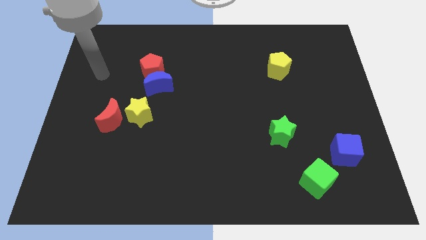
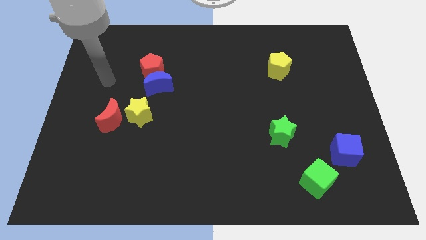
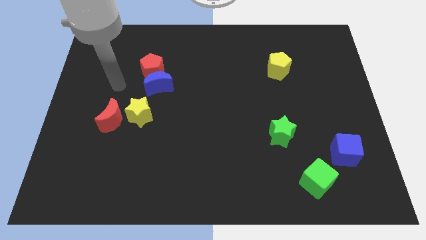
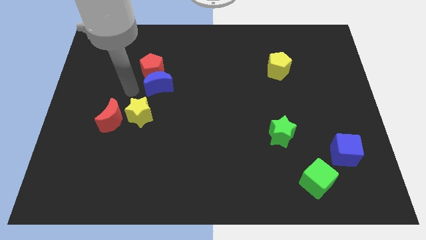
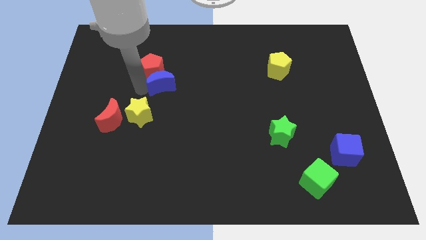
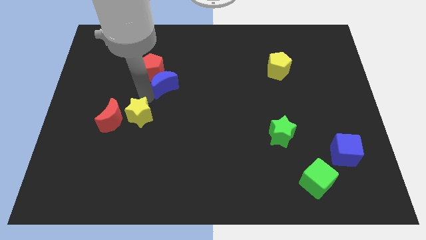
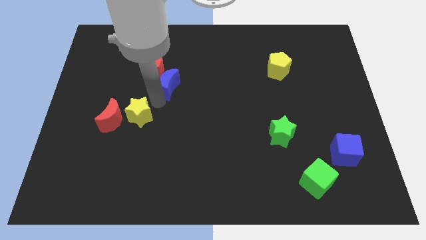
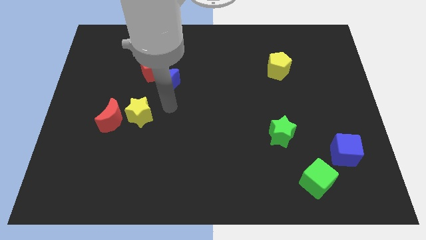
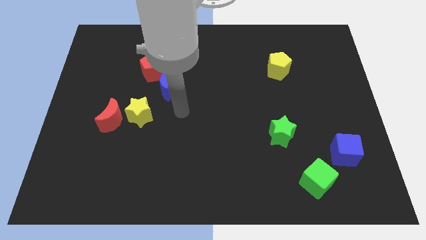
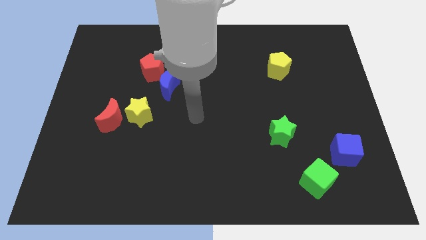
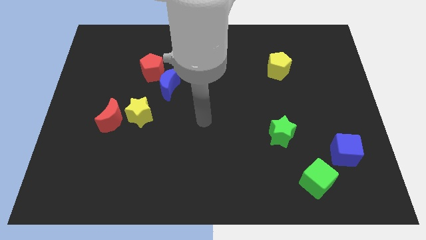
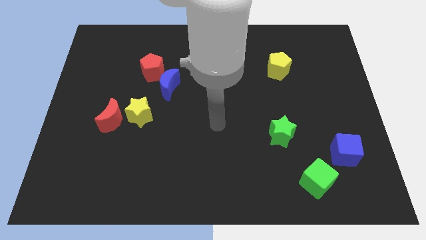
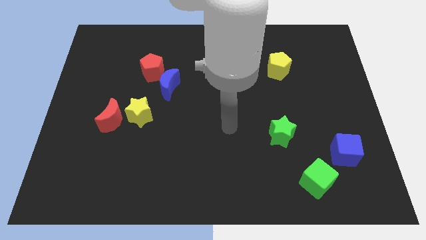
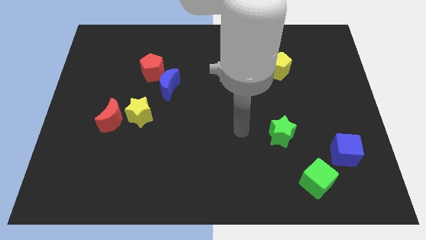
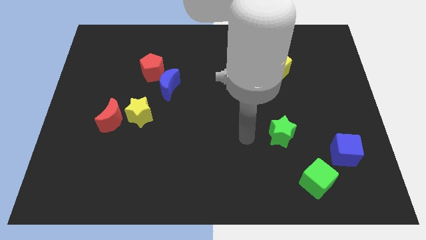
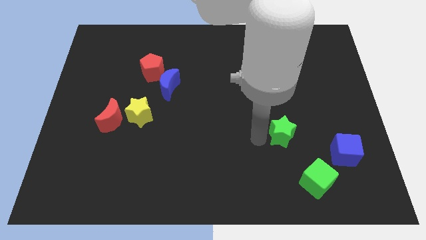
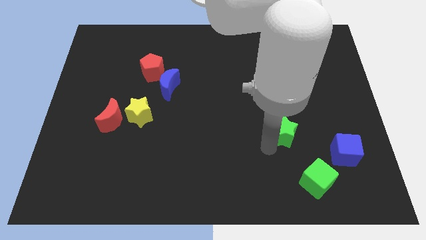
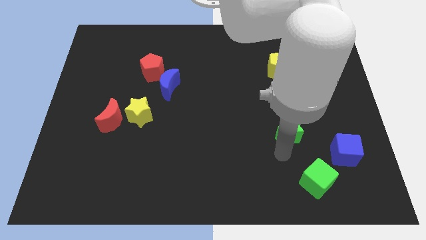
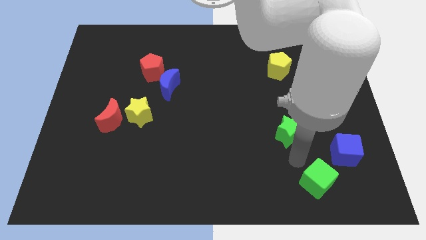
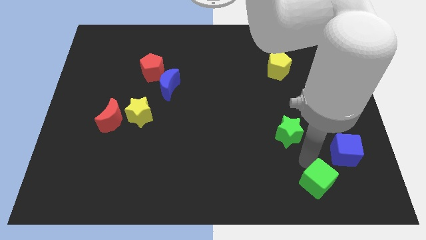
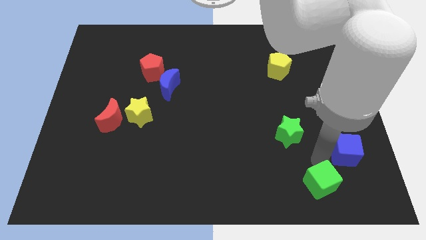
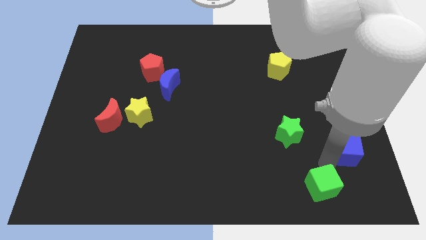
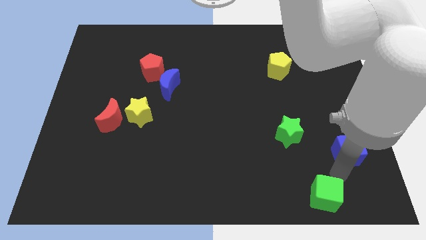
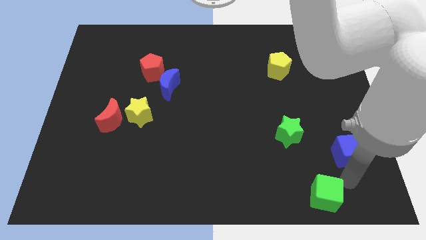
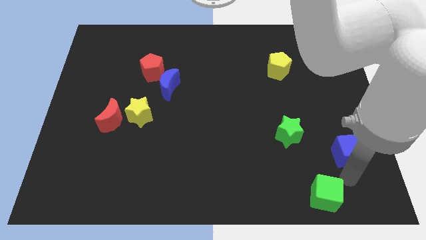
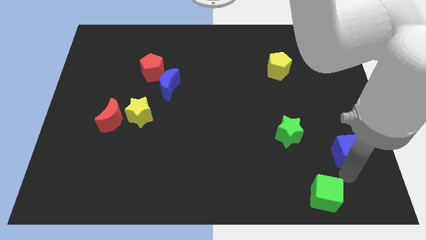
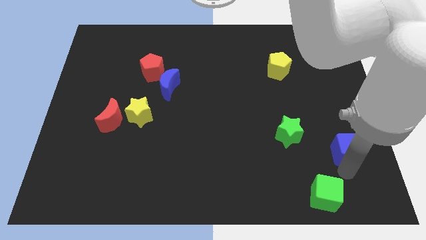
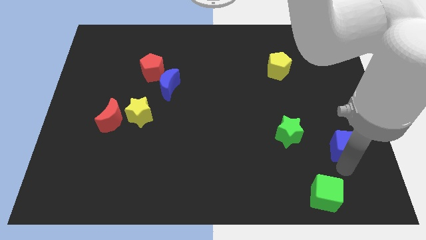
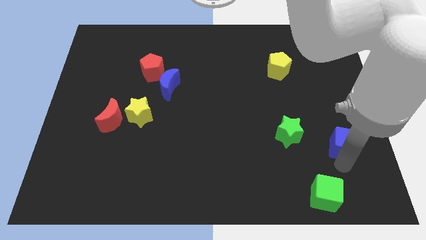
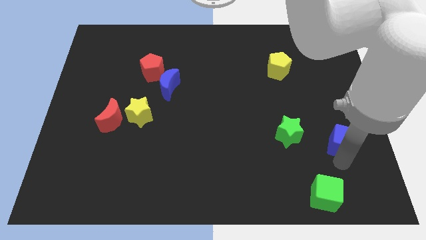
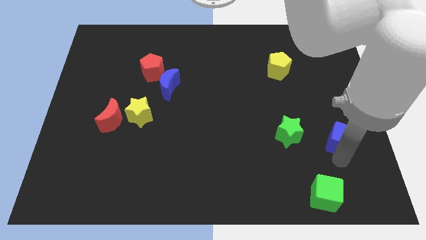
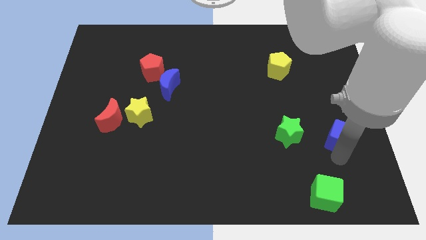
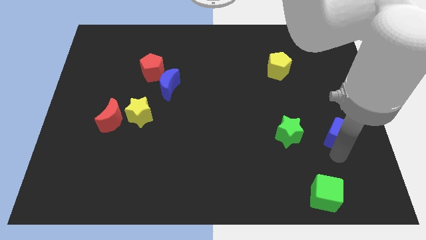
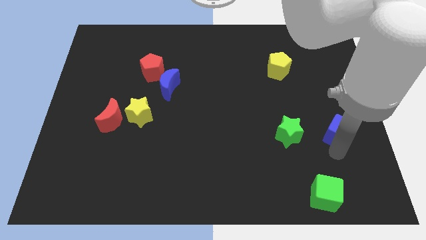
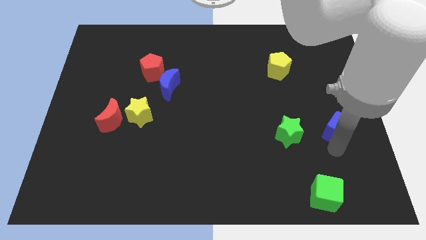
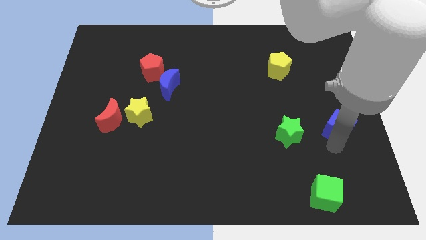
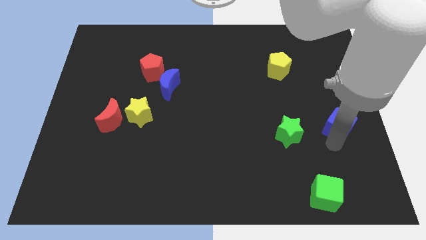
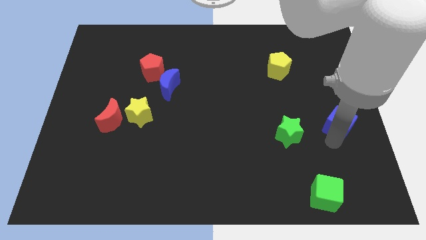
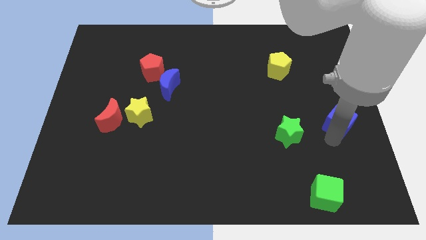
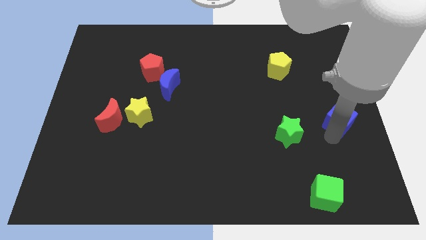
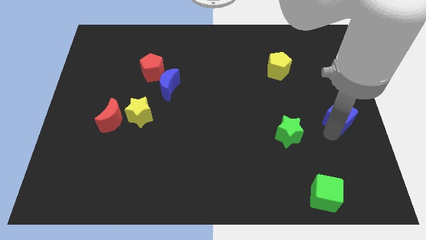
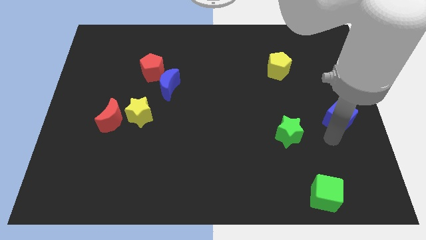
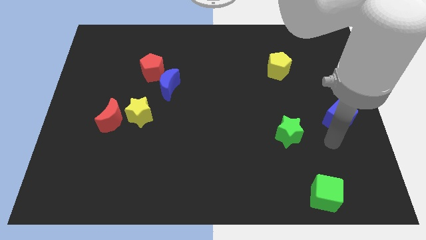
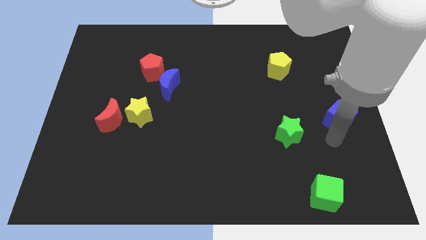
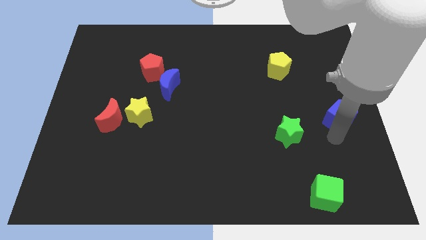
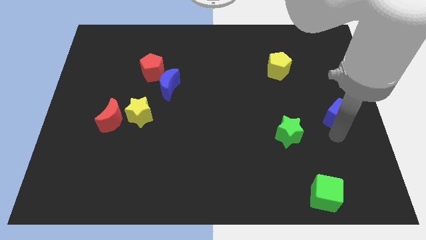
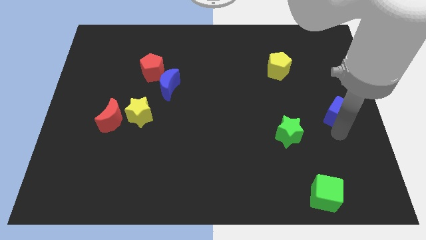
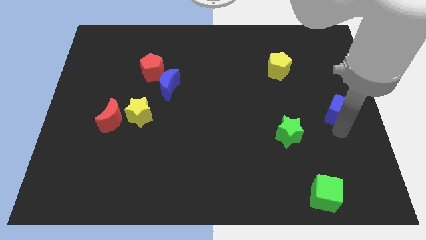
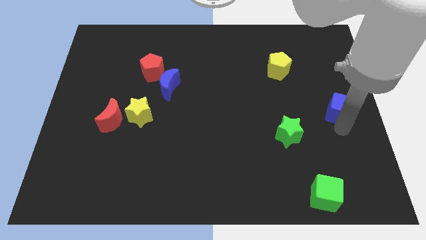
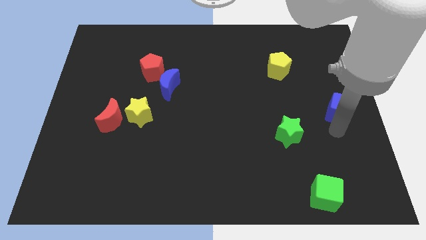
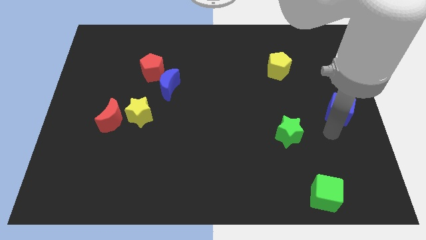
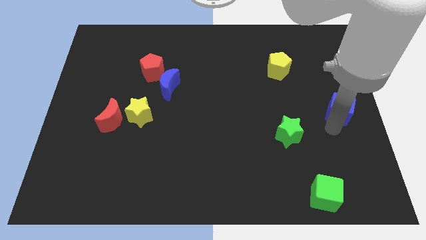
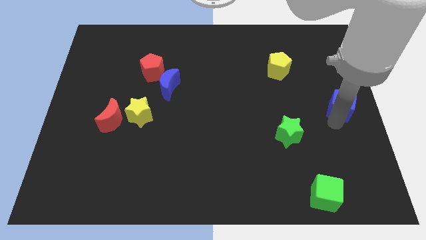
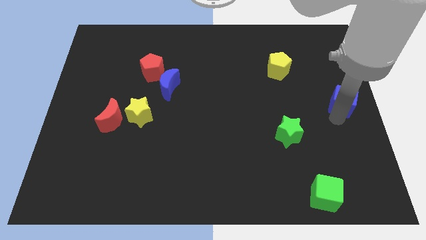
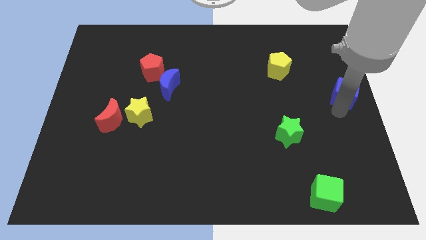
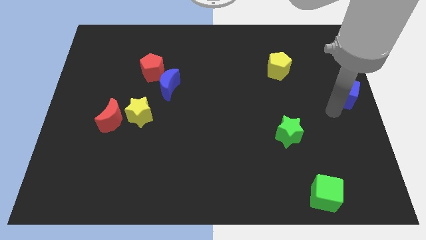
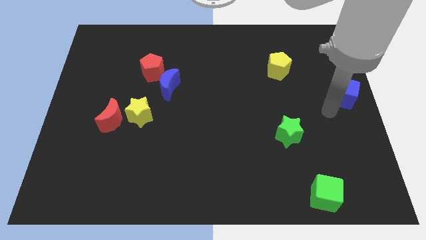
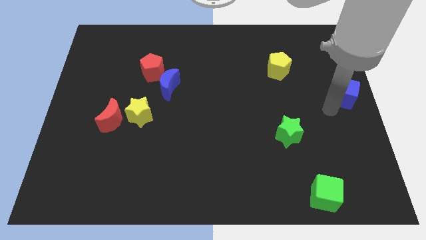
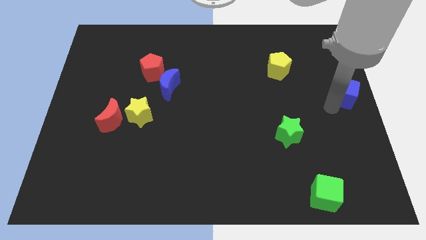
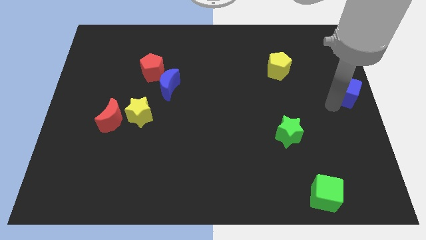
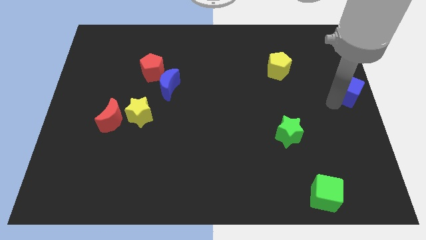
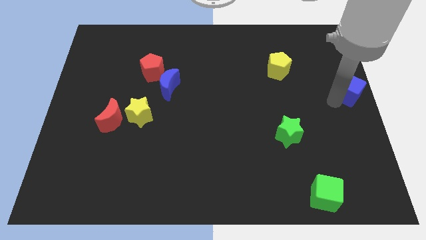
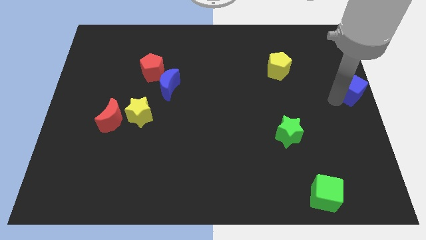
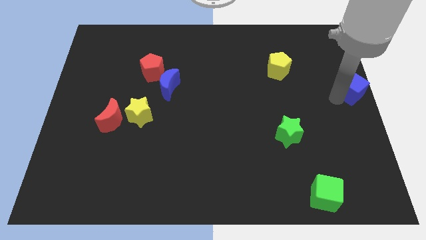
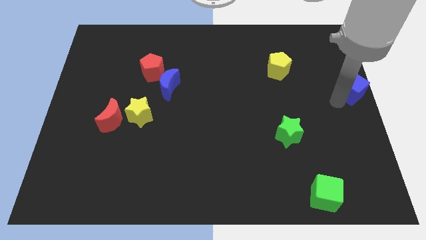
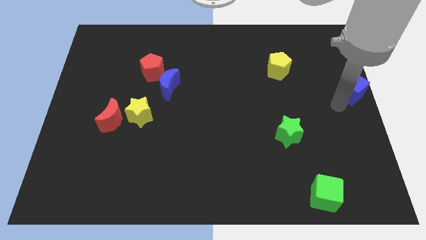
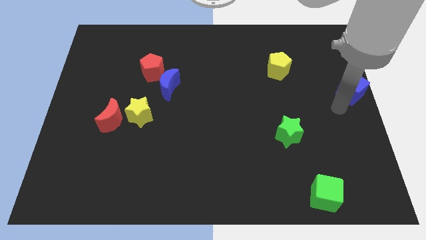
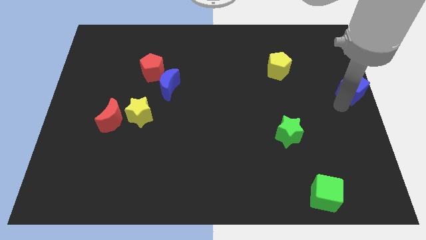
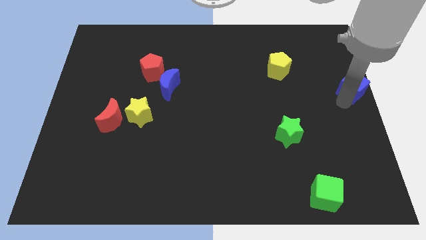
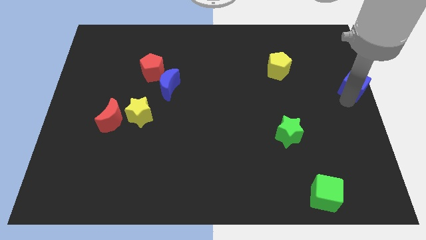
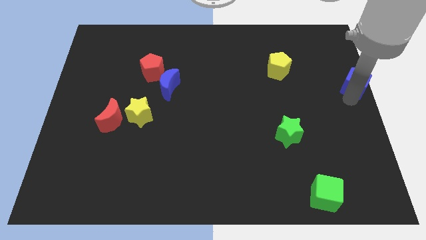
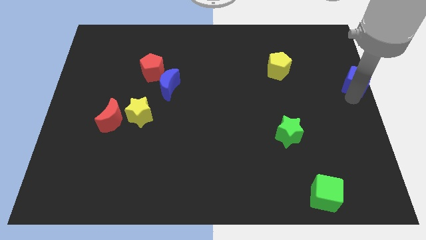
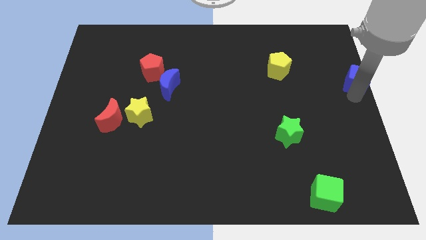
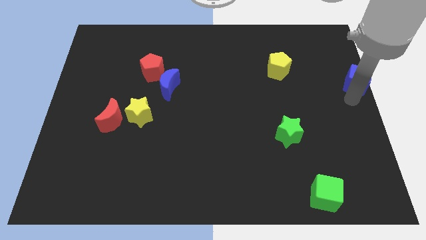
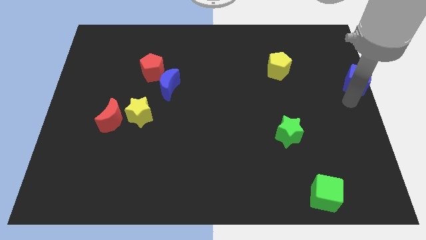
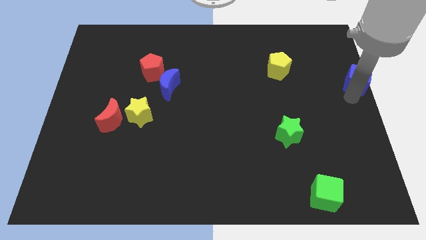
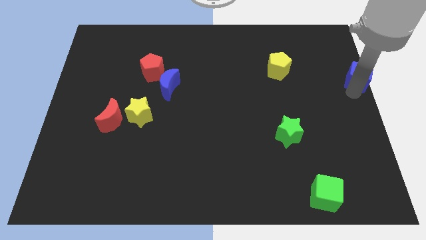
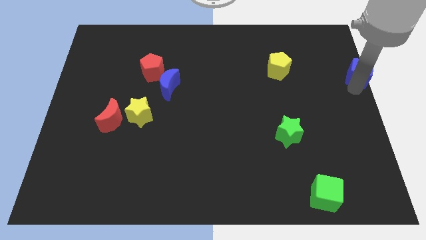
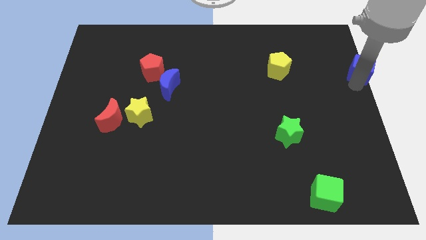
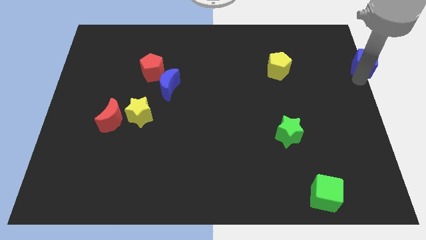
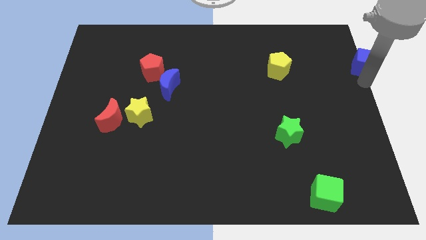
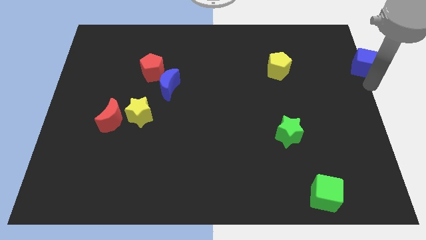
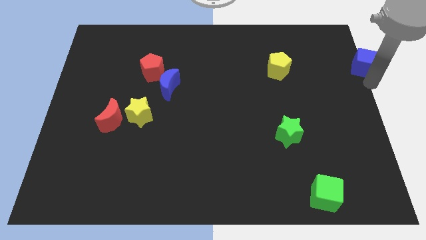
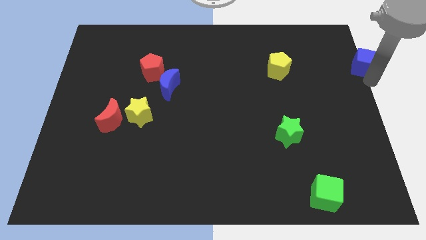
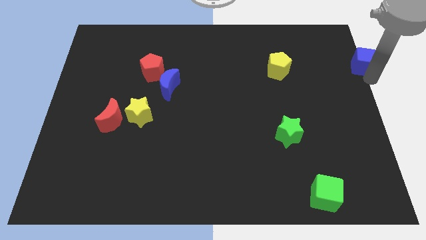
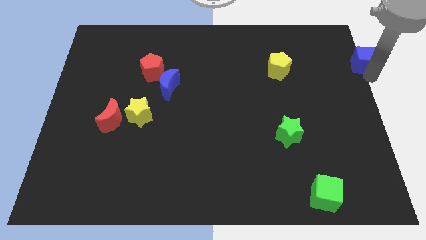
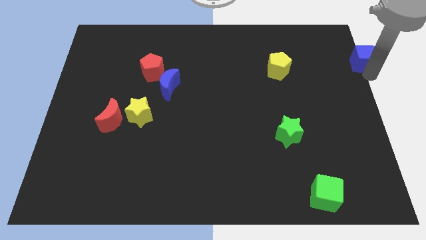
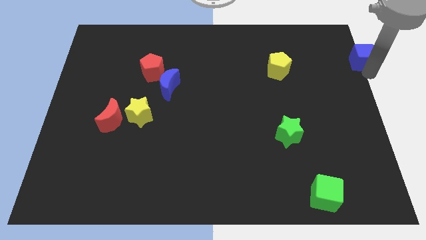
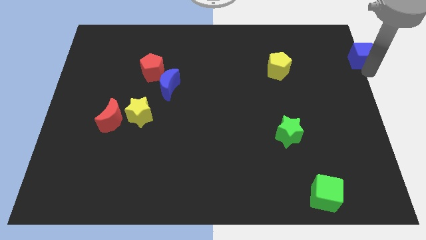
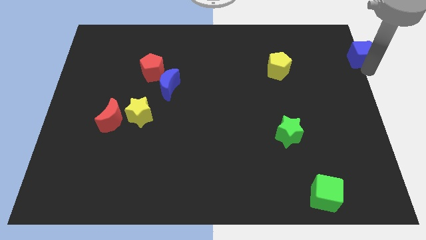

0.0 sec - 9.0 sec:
push the blue cube to the upper right corner
